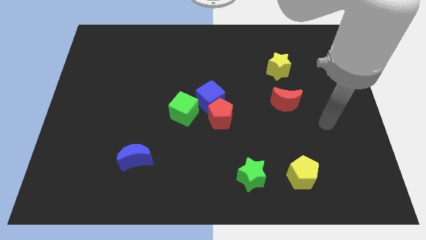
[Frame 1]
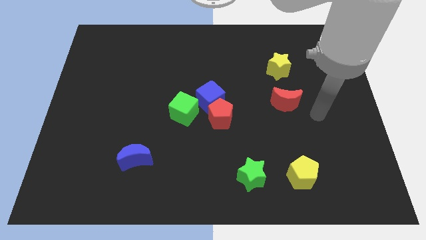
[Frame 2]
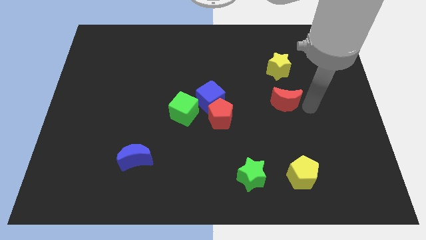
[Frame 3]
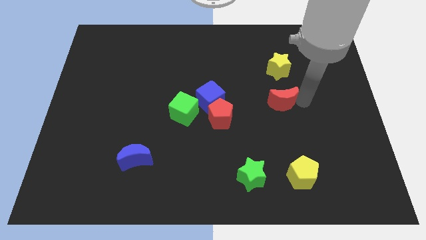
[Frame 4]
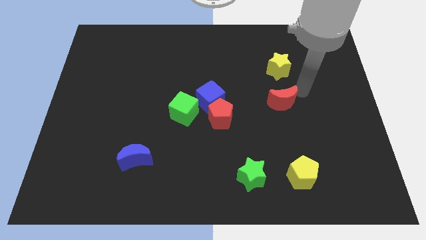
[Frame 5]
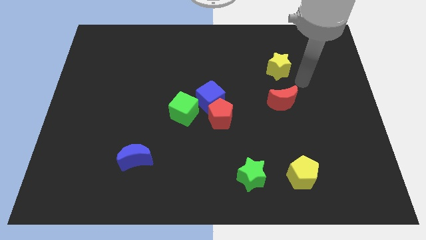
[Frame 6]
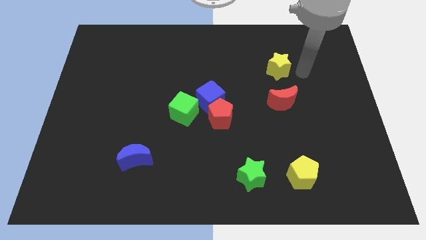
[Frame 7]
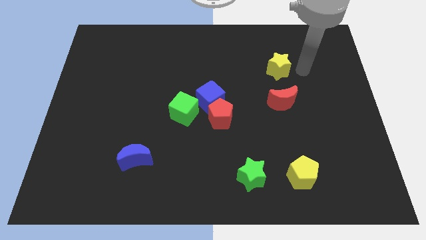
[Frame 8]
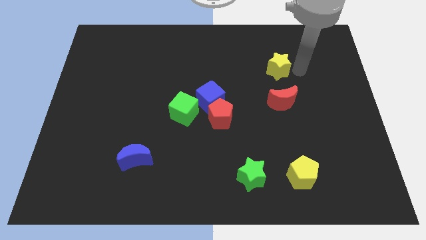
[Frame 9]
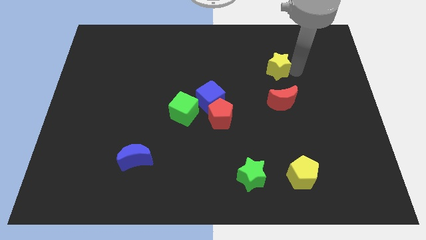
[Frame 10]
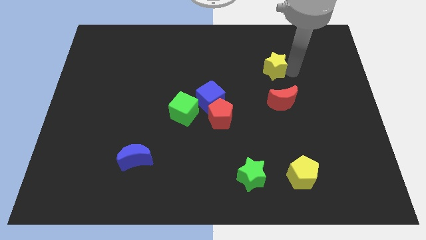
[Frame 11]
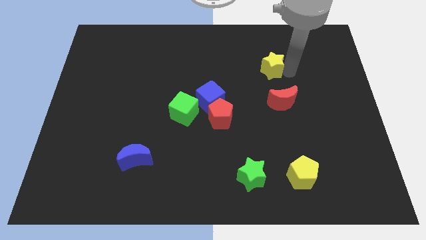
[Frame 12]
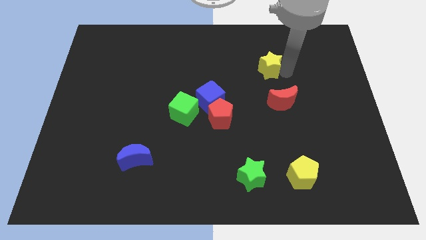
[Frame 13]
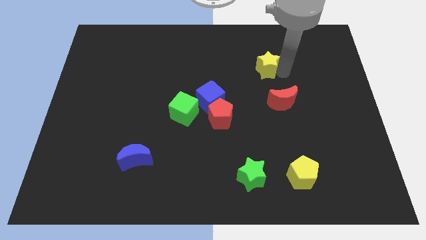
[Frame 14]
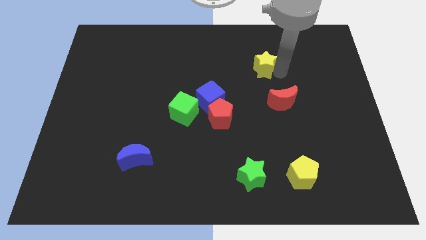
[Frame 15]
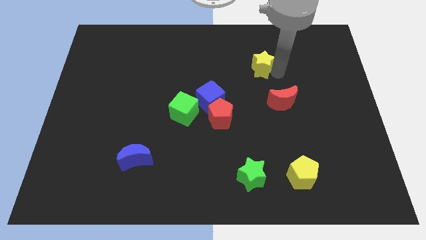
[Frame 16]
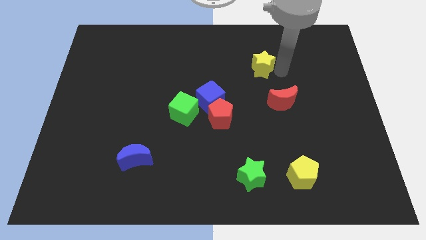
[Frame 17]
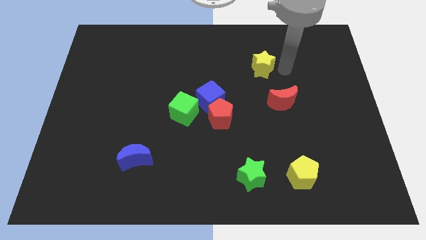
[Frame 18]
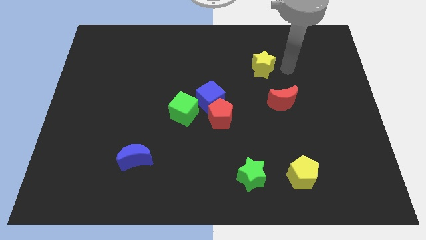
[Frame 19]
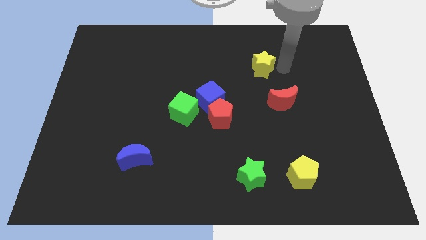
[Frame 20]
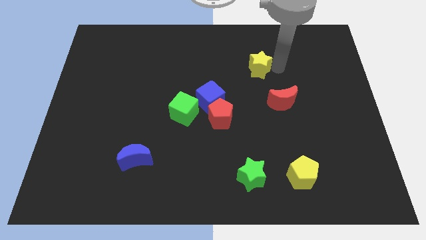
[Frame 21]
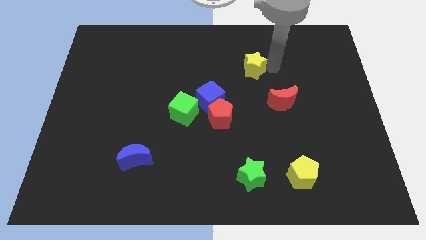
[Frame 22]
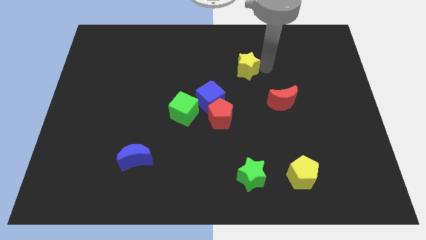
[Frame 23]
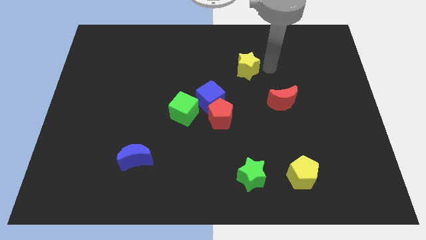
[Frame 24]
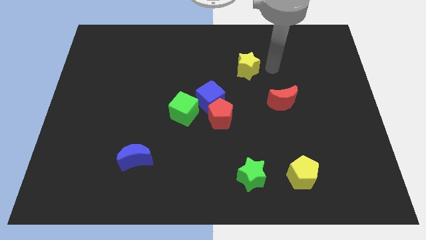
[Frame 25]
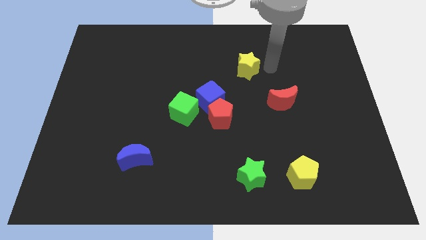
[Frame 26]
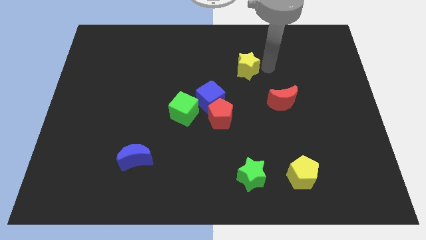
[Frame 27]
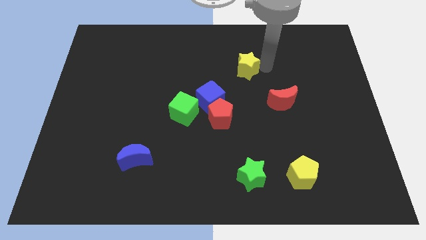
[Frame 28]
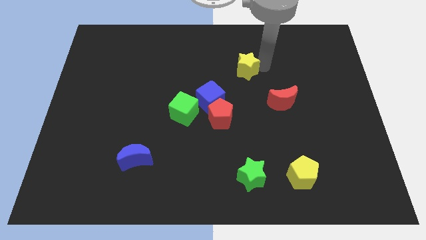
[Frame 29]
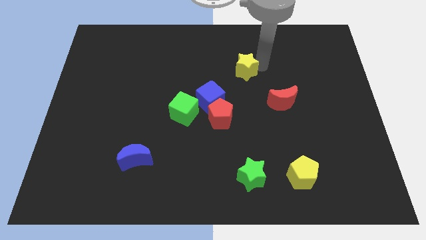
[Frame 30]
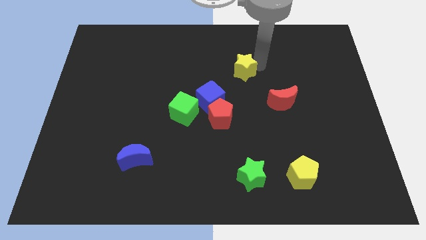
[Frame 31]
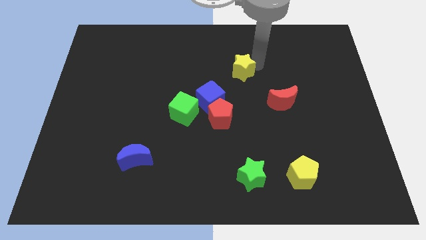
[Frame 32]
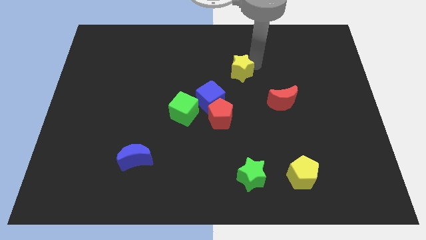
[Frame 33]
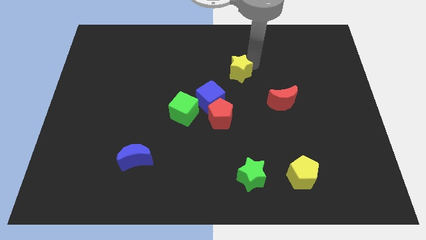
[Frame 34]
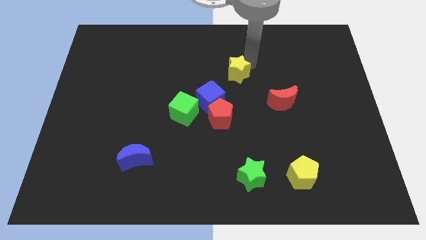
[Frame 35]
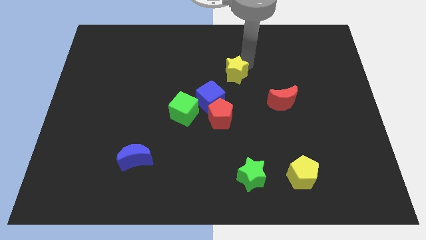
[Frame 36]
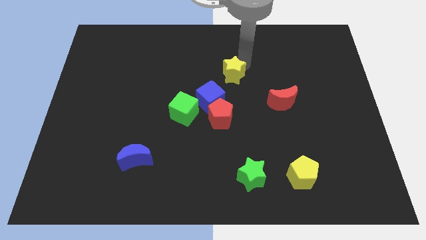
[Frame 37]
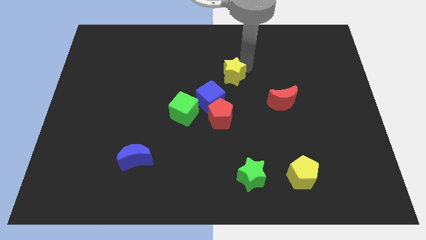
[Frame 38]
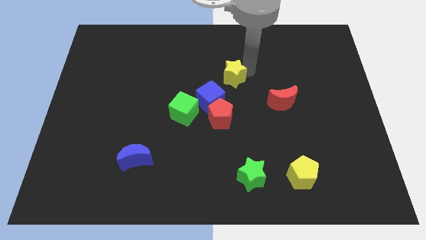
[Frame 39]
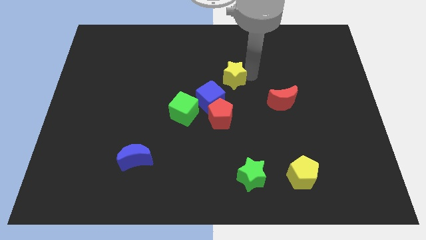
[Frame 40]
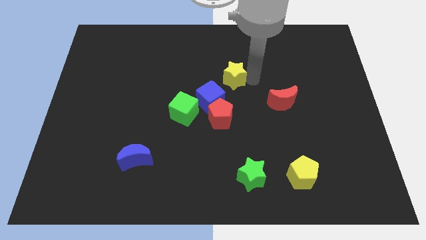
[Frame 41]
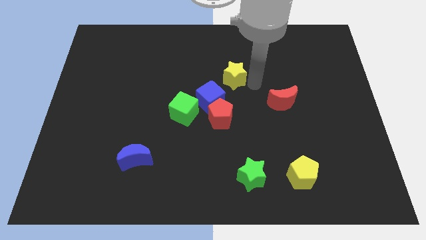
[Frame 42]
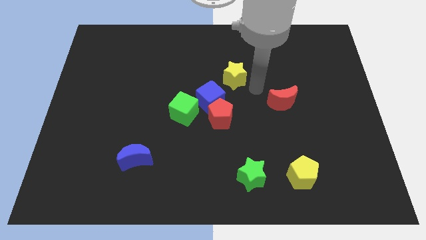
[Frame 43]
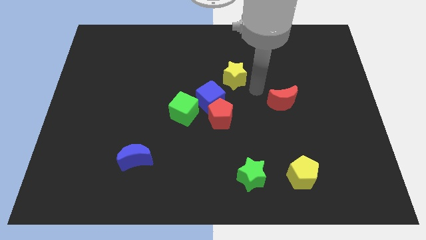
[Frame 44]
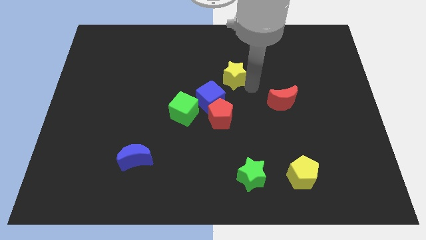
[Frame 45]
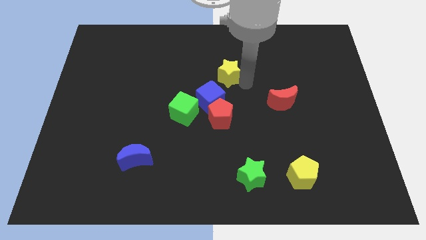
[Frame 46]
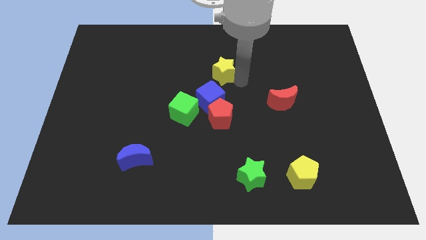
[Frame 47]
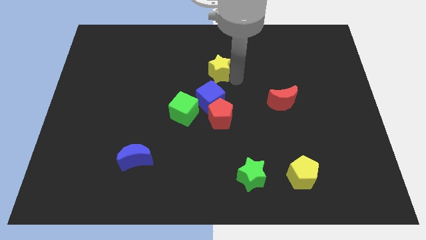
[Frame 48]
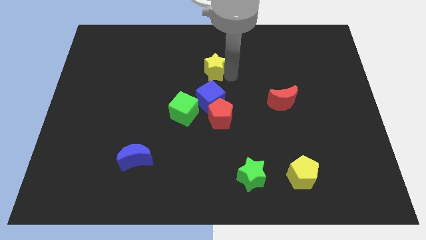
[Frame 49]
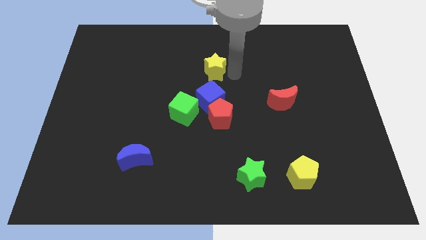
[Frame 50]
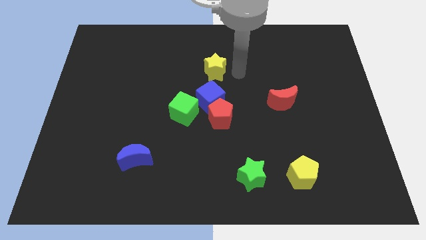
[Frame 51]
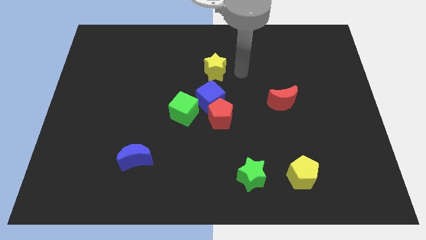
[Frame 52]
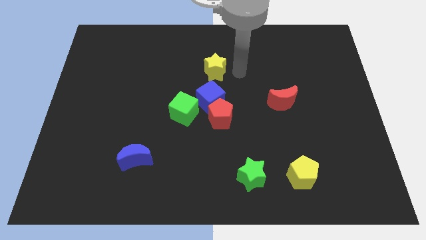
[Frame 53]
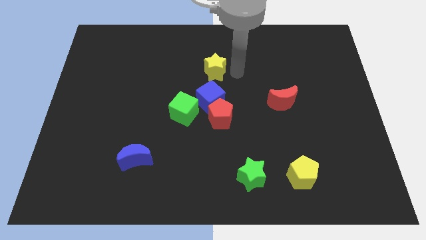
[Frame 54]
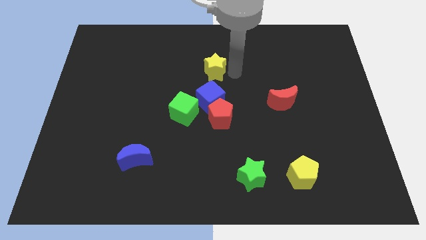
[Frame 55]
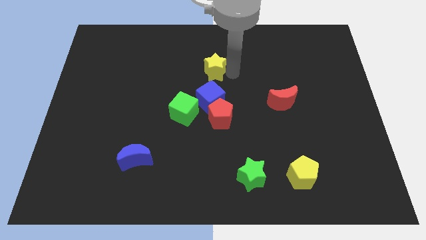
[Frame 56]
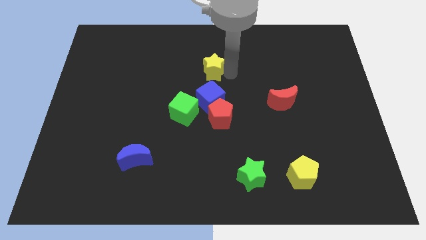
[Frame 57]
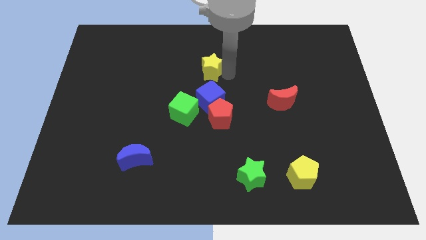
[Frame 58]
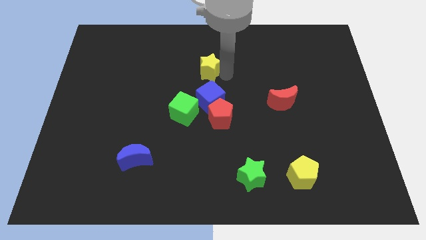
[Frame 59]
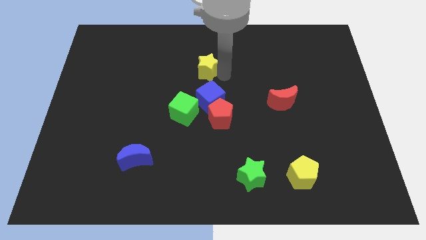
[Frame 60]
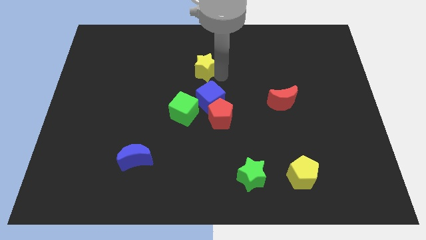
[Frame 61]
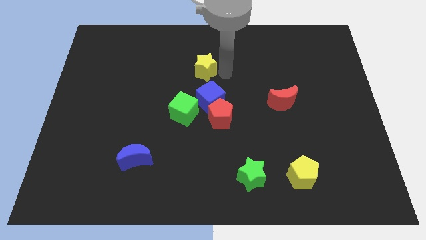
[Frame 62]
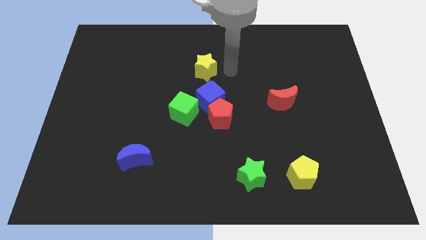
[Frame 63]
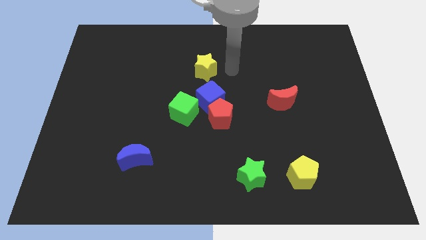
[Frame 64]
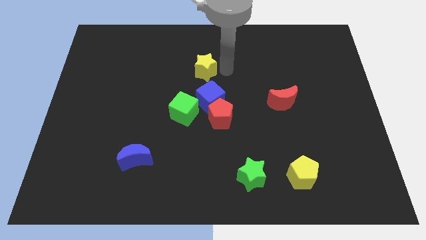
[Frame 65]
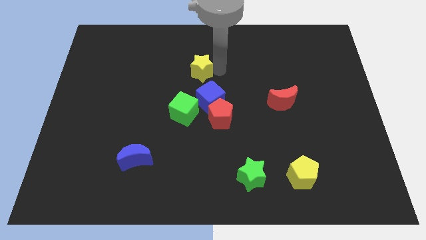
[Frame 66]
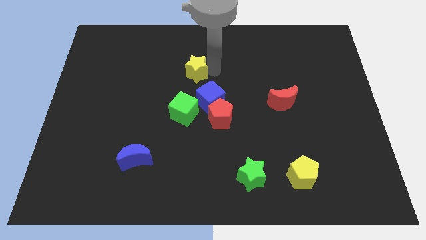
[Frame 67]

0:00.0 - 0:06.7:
move the yellow star to the left

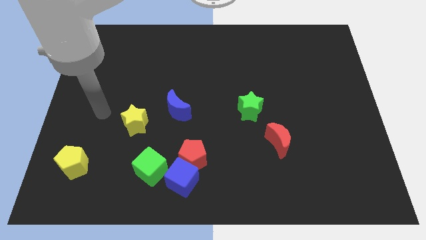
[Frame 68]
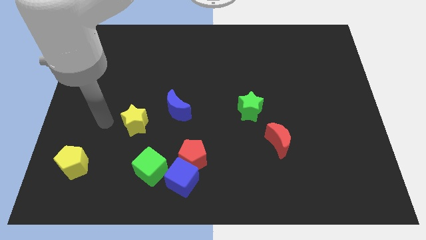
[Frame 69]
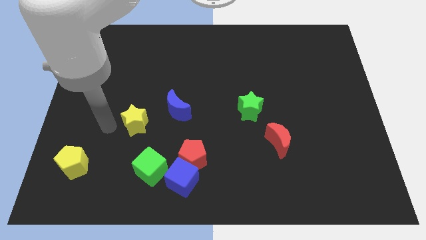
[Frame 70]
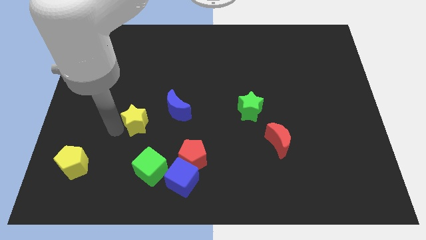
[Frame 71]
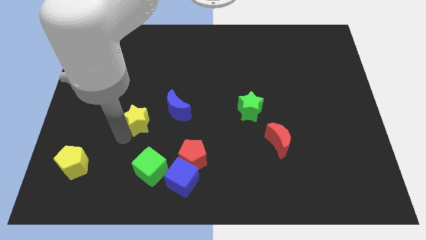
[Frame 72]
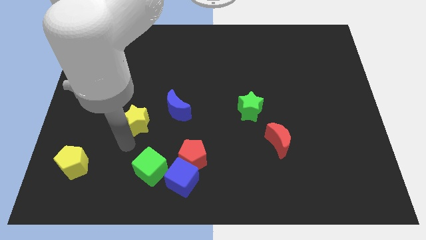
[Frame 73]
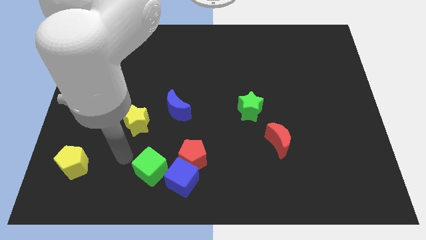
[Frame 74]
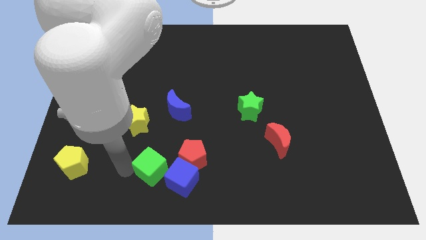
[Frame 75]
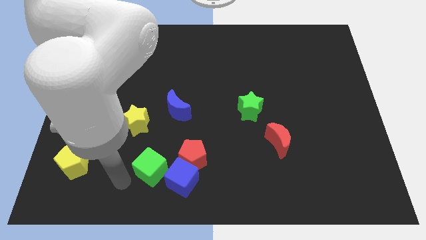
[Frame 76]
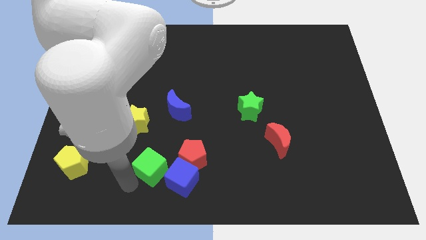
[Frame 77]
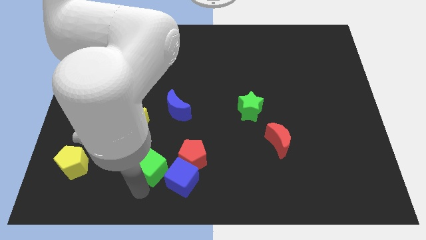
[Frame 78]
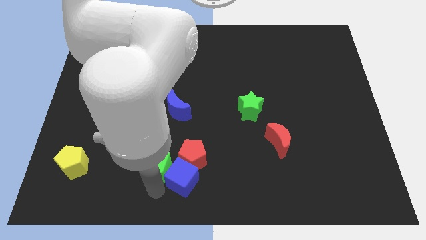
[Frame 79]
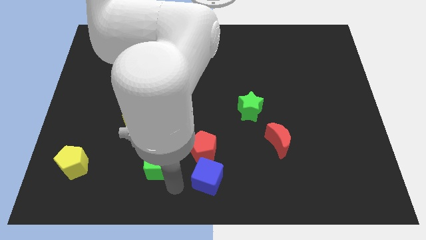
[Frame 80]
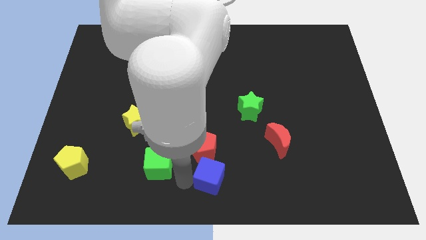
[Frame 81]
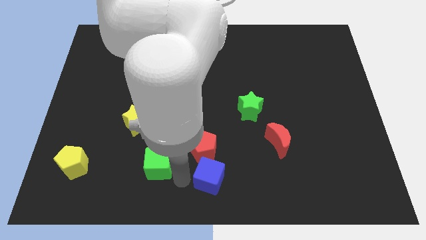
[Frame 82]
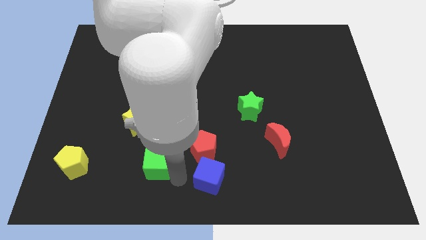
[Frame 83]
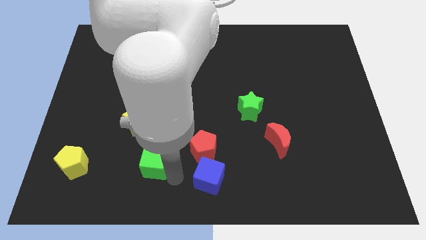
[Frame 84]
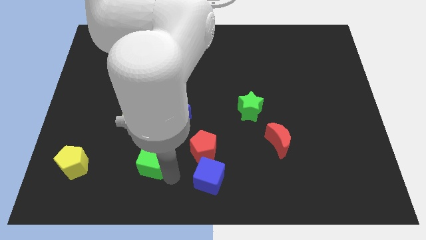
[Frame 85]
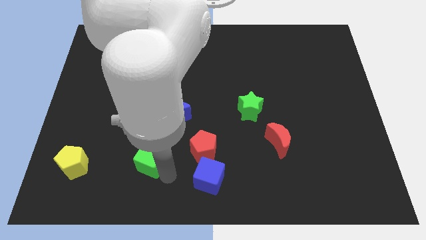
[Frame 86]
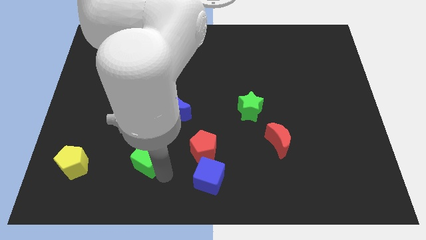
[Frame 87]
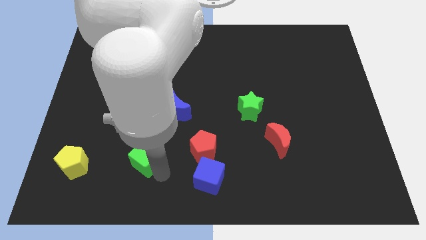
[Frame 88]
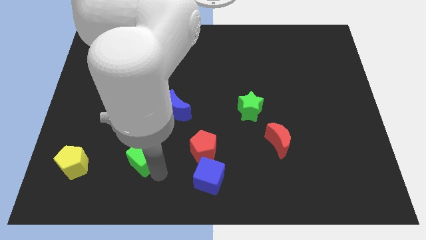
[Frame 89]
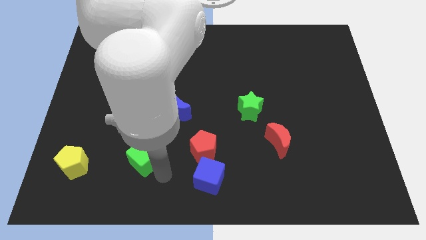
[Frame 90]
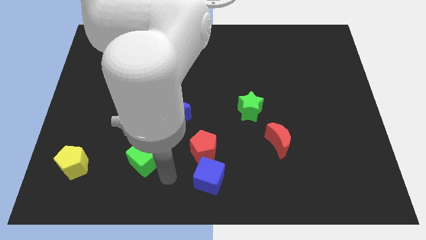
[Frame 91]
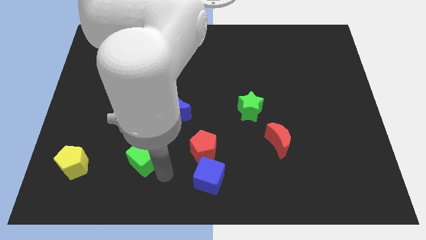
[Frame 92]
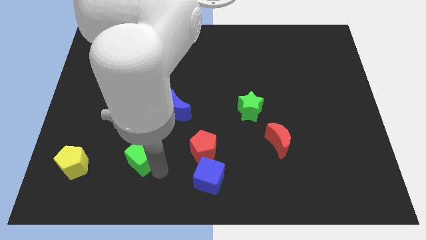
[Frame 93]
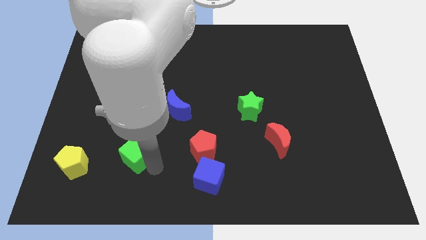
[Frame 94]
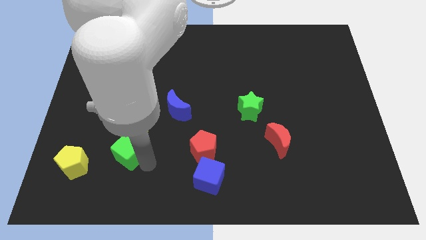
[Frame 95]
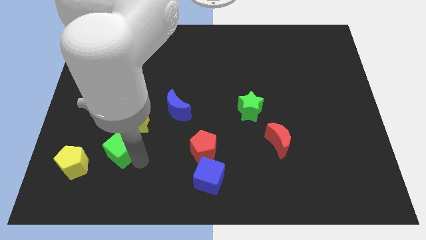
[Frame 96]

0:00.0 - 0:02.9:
slightly move the green cube upwards and to the left diagonally
